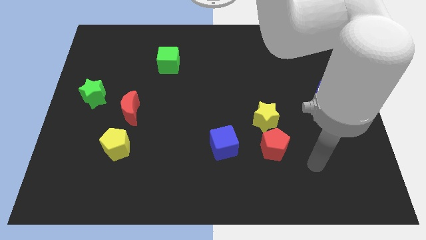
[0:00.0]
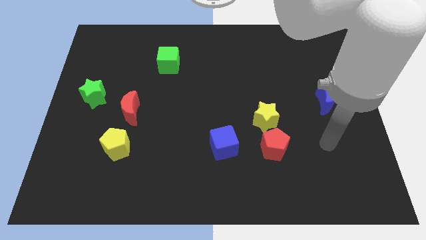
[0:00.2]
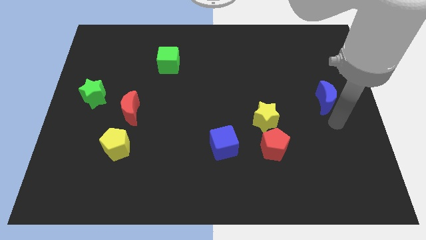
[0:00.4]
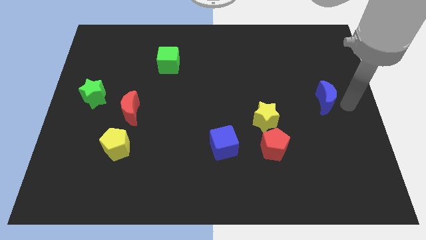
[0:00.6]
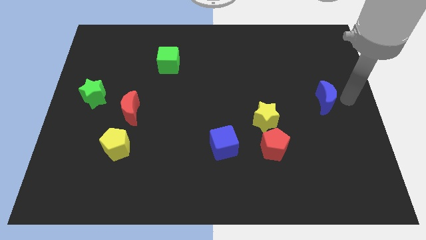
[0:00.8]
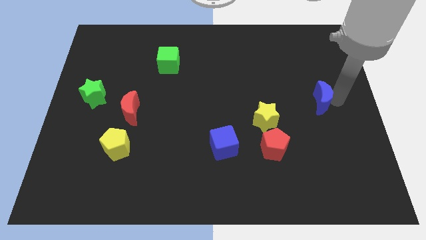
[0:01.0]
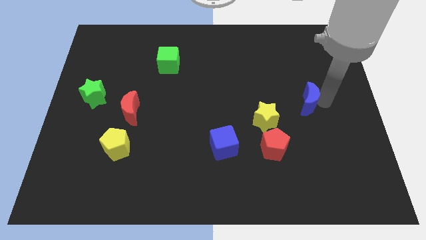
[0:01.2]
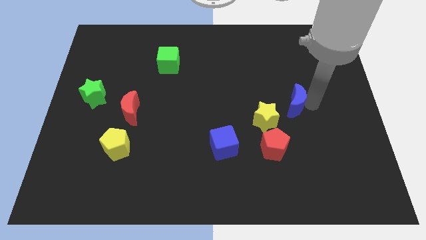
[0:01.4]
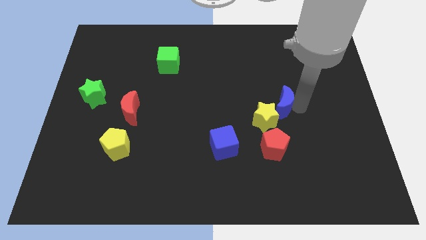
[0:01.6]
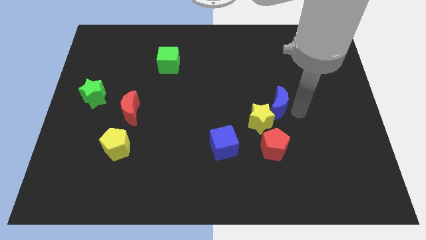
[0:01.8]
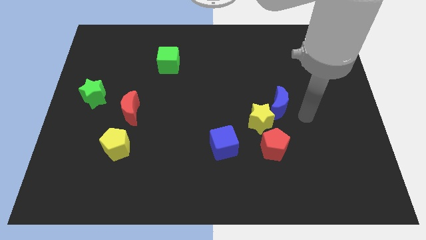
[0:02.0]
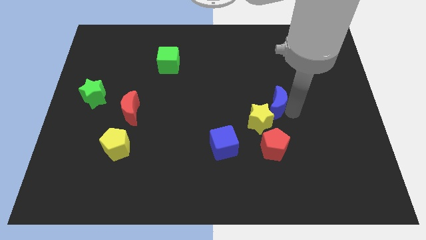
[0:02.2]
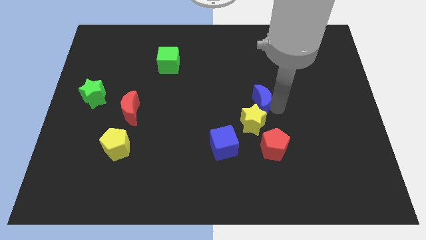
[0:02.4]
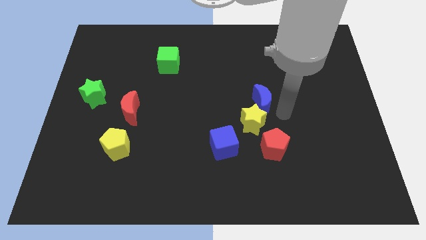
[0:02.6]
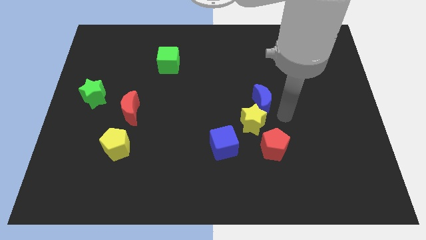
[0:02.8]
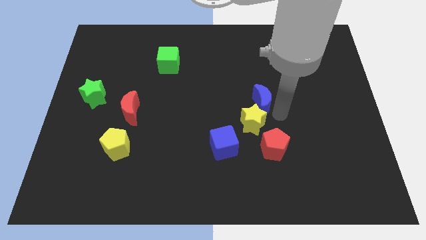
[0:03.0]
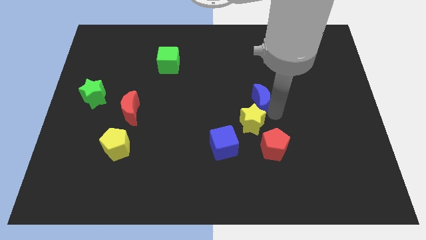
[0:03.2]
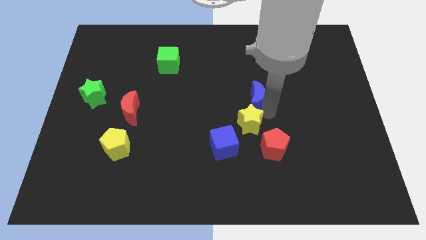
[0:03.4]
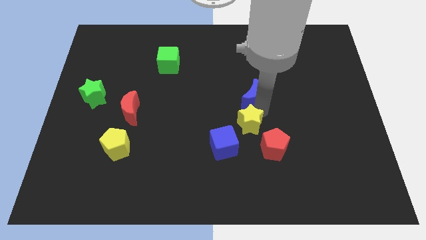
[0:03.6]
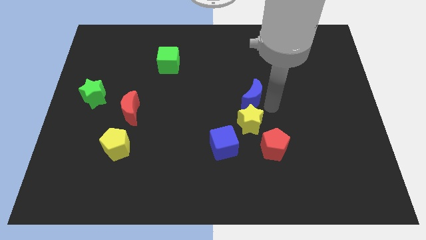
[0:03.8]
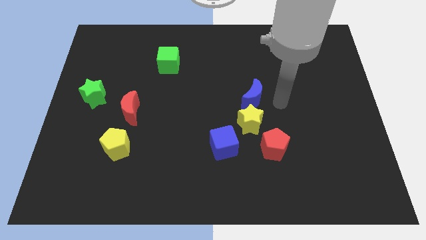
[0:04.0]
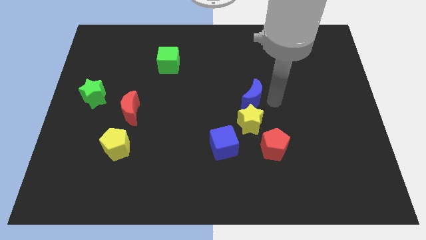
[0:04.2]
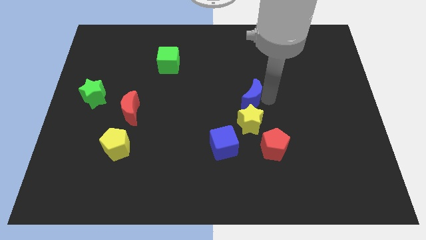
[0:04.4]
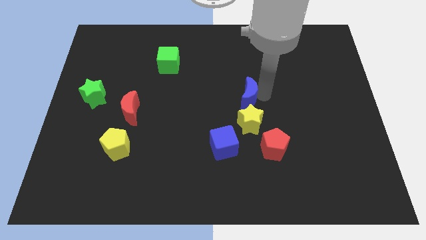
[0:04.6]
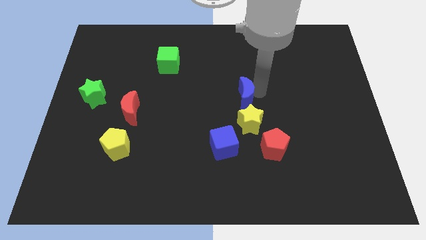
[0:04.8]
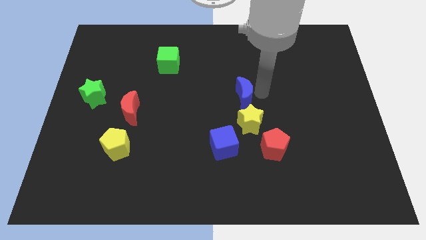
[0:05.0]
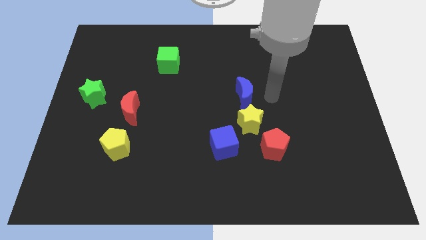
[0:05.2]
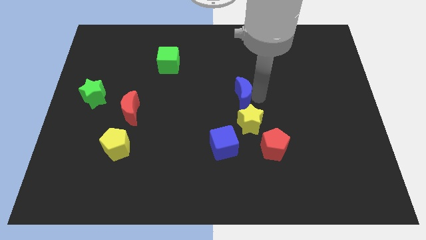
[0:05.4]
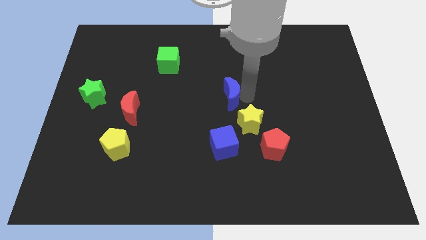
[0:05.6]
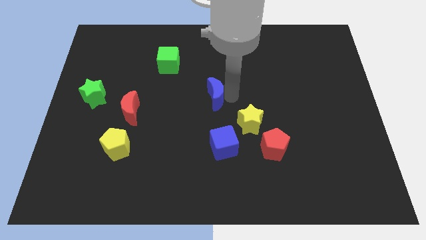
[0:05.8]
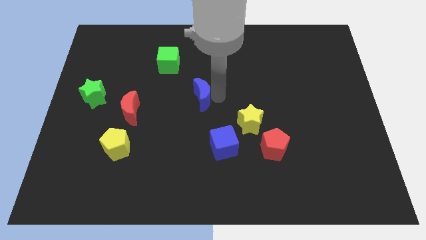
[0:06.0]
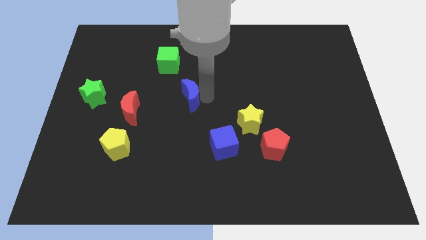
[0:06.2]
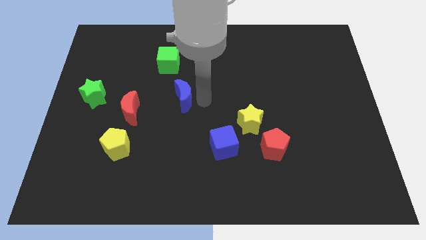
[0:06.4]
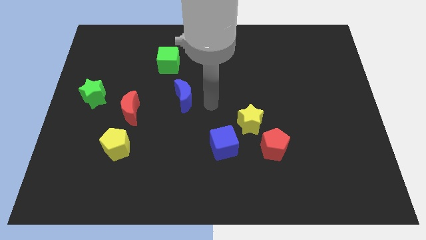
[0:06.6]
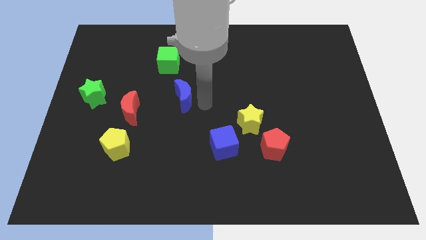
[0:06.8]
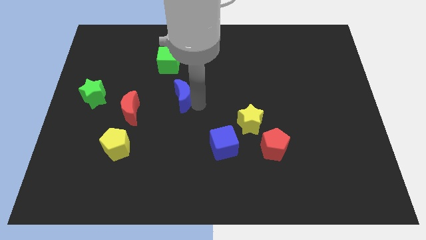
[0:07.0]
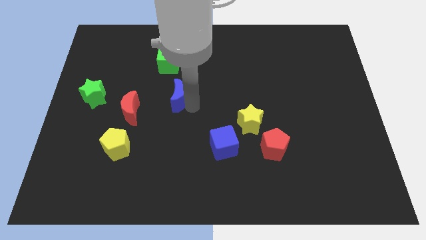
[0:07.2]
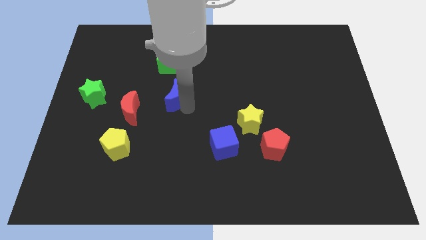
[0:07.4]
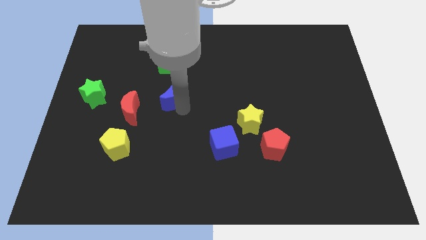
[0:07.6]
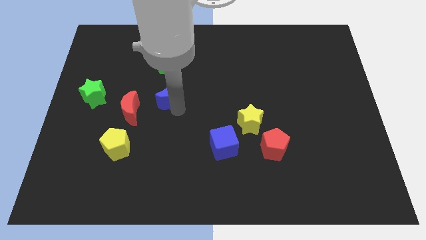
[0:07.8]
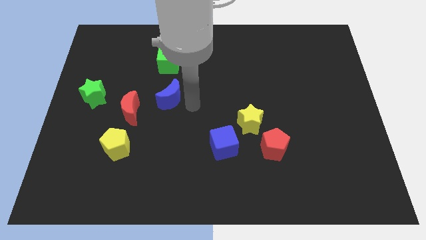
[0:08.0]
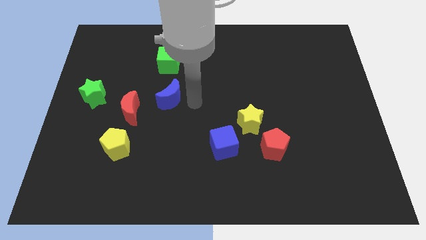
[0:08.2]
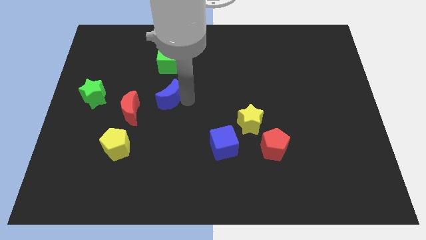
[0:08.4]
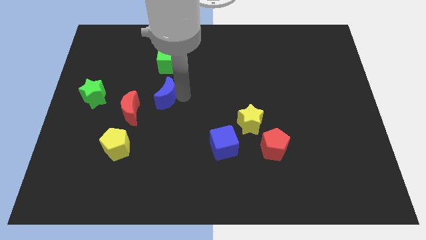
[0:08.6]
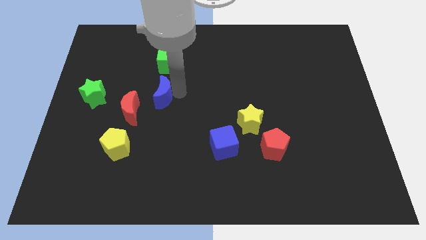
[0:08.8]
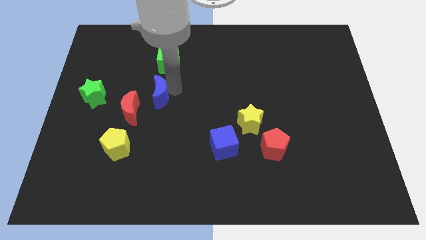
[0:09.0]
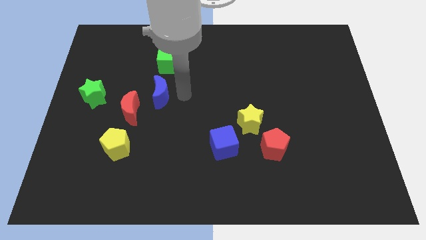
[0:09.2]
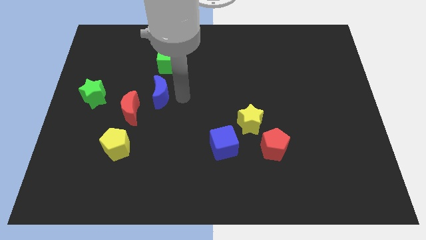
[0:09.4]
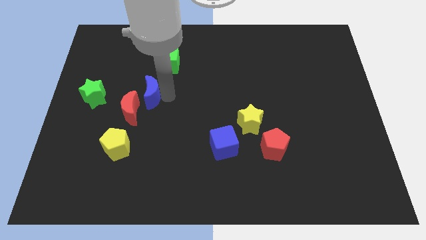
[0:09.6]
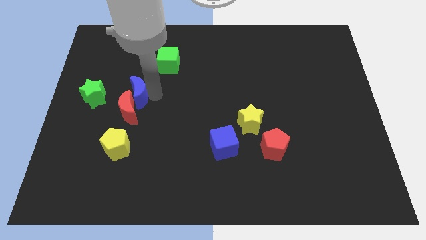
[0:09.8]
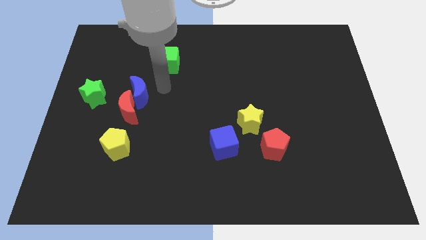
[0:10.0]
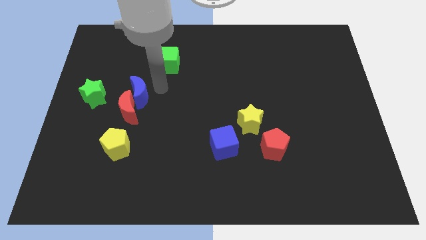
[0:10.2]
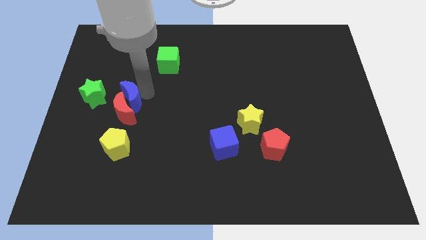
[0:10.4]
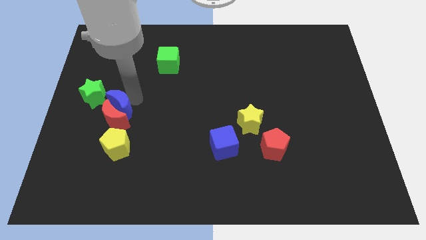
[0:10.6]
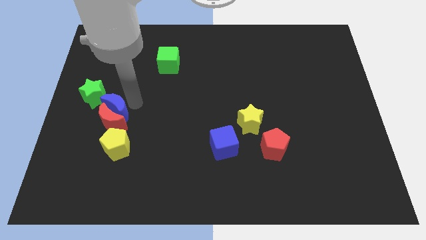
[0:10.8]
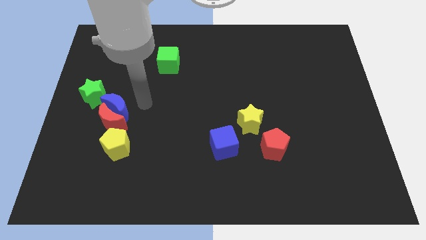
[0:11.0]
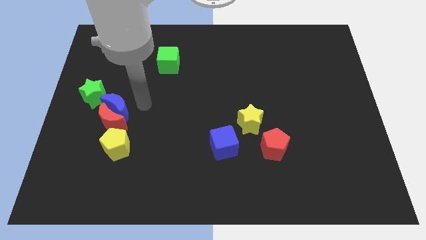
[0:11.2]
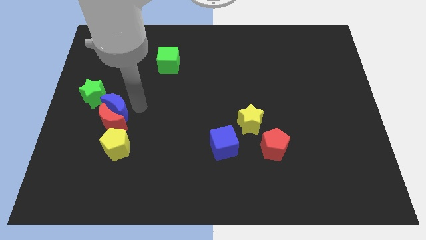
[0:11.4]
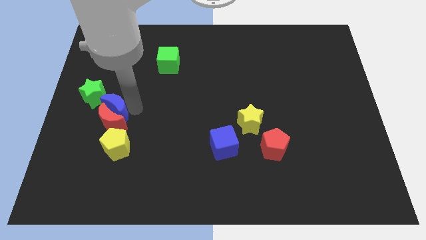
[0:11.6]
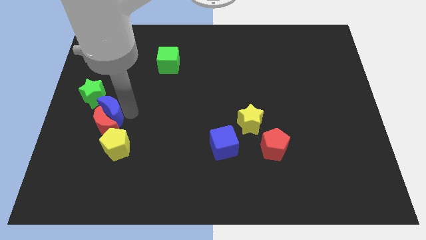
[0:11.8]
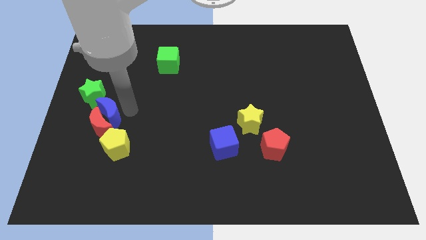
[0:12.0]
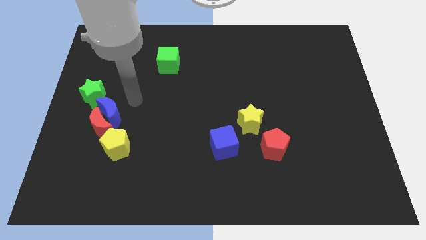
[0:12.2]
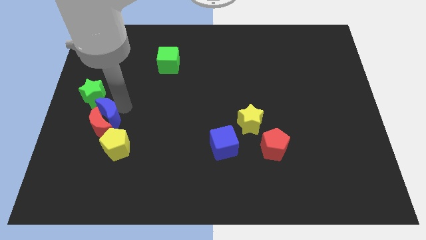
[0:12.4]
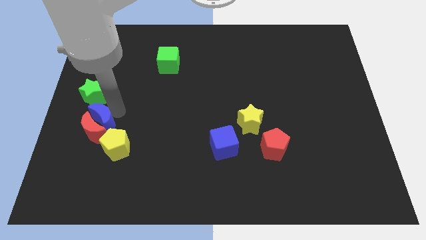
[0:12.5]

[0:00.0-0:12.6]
put the blue moon to the bottom side of the green star
